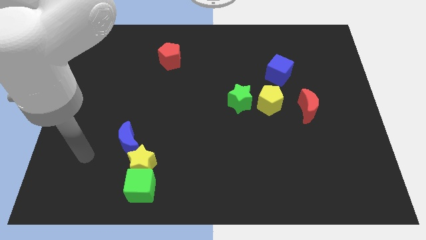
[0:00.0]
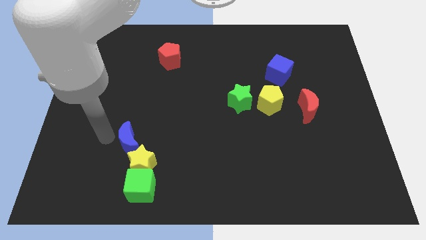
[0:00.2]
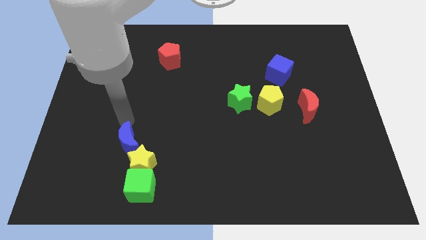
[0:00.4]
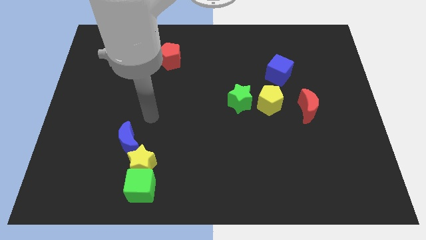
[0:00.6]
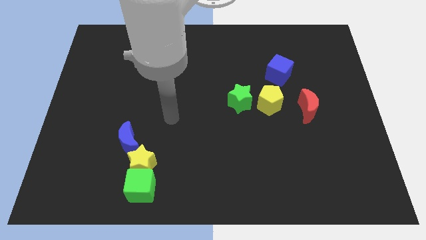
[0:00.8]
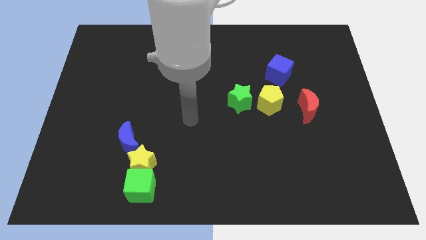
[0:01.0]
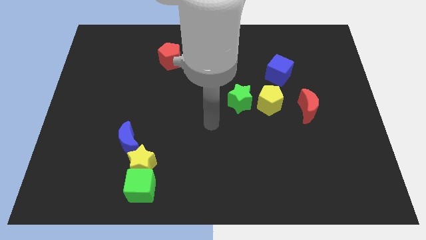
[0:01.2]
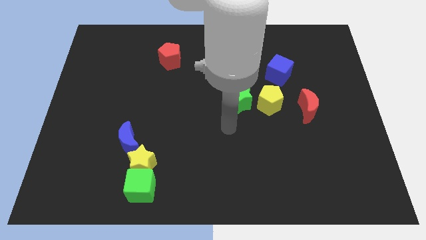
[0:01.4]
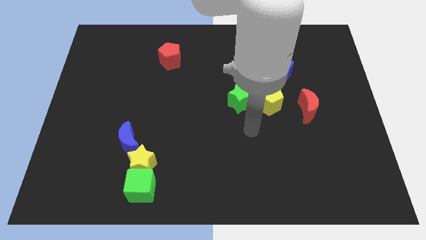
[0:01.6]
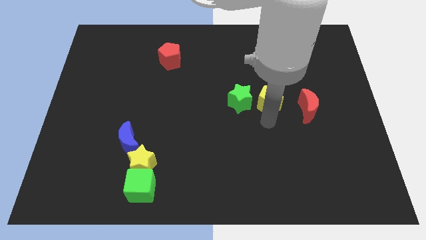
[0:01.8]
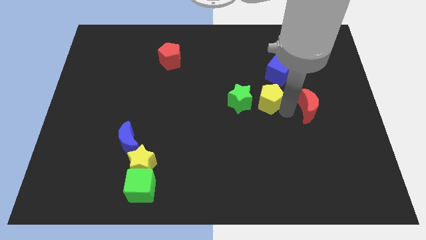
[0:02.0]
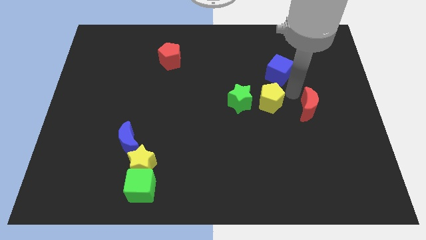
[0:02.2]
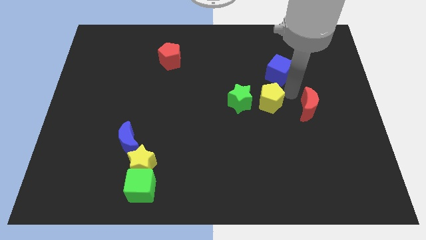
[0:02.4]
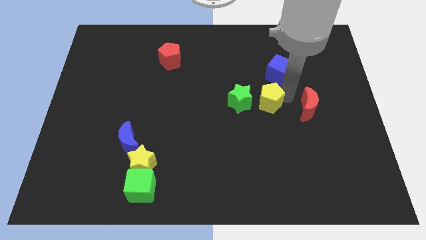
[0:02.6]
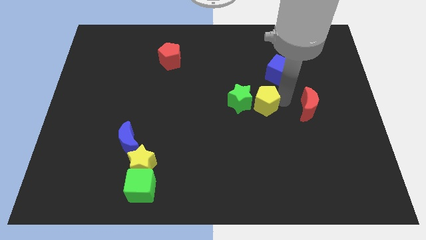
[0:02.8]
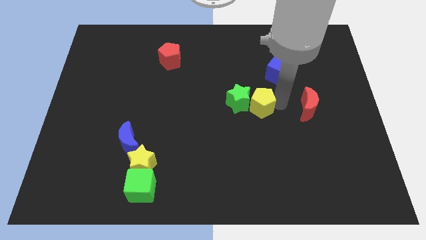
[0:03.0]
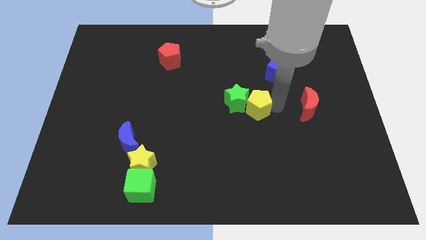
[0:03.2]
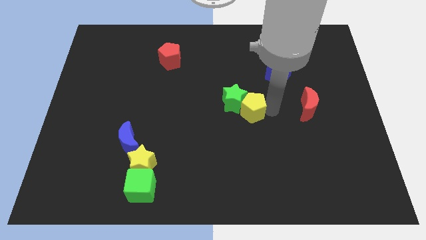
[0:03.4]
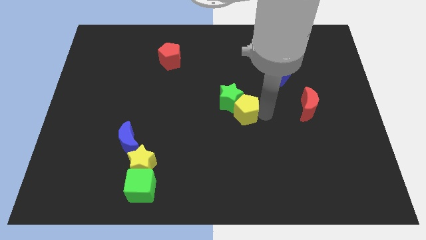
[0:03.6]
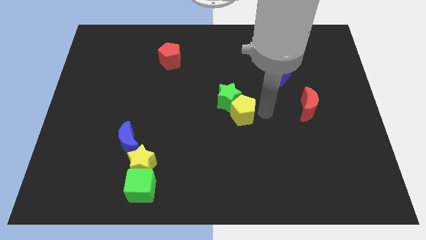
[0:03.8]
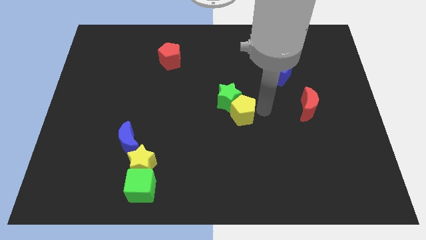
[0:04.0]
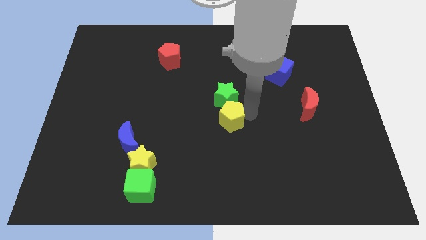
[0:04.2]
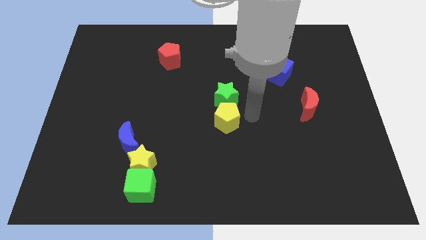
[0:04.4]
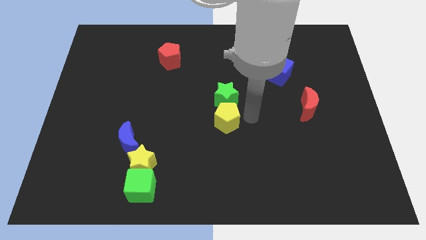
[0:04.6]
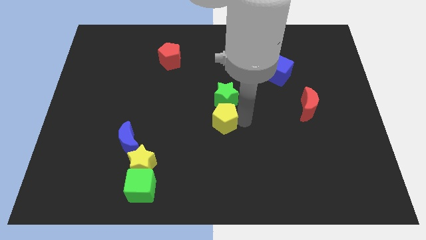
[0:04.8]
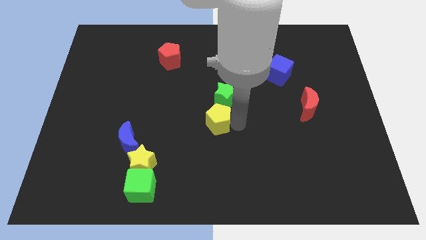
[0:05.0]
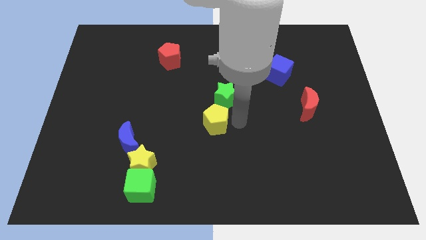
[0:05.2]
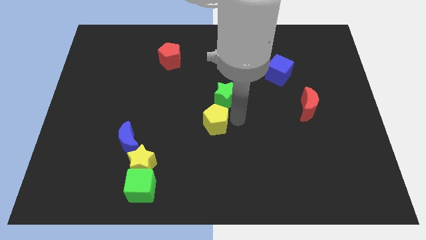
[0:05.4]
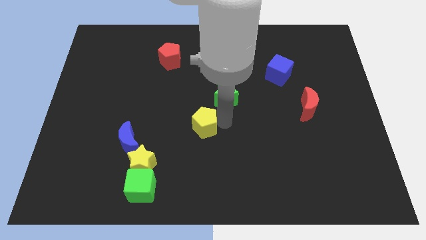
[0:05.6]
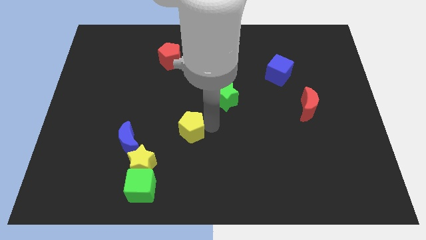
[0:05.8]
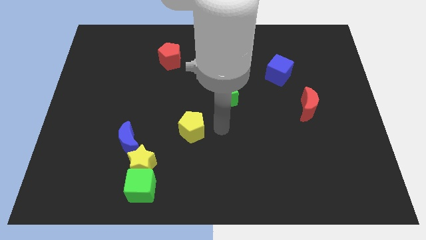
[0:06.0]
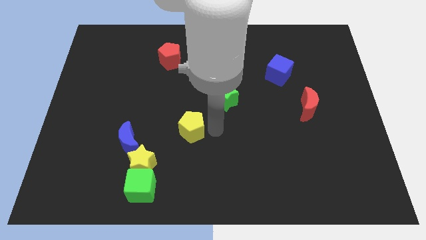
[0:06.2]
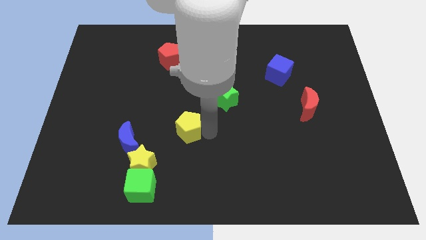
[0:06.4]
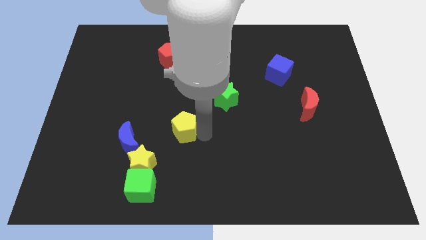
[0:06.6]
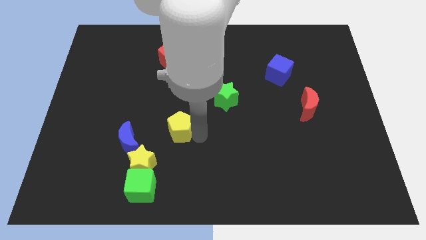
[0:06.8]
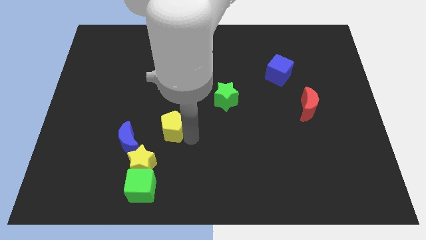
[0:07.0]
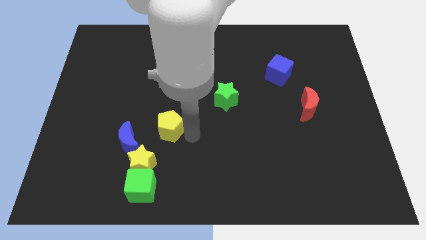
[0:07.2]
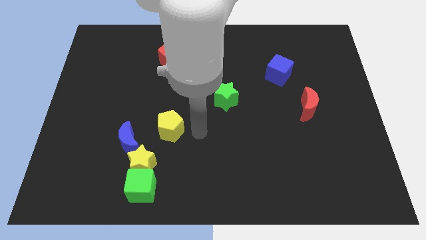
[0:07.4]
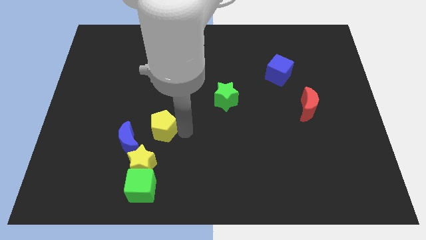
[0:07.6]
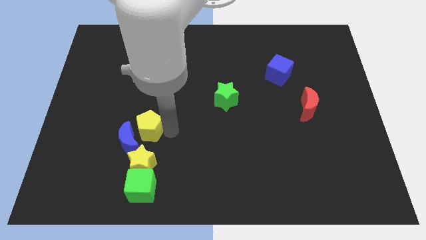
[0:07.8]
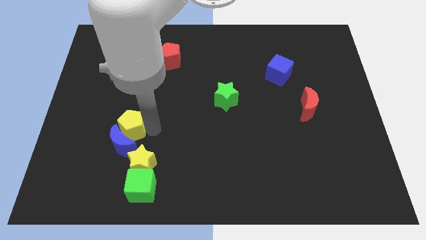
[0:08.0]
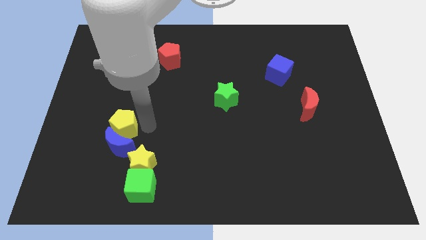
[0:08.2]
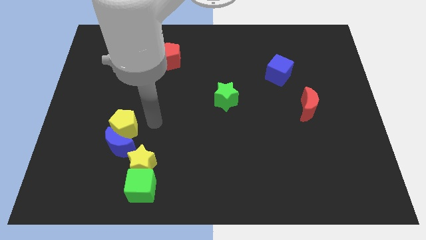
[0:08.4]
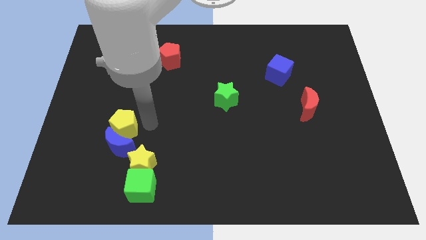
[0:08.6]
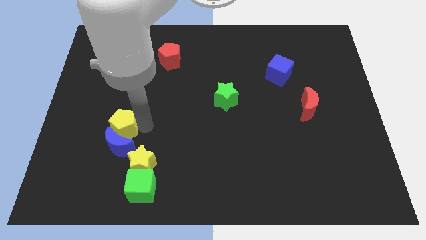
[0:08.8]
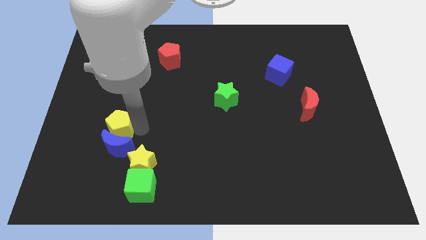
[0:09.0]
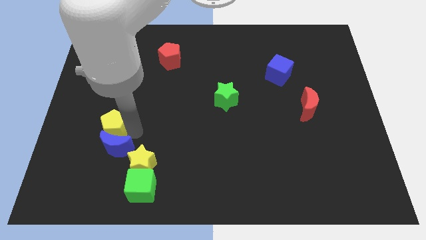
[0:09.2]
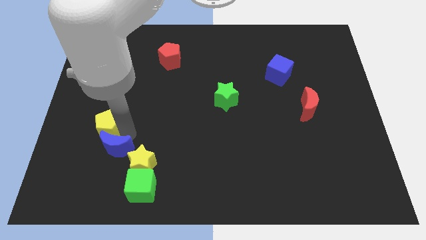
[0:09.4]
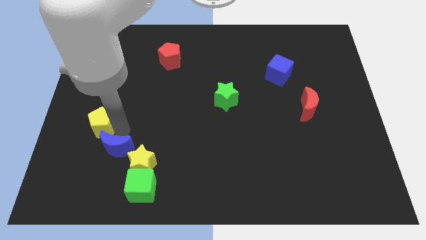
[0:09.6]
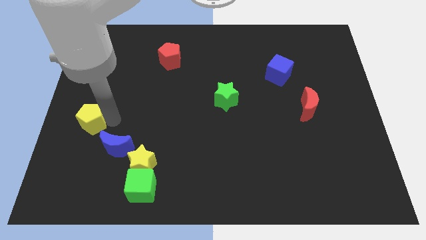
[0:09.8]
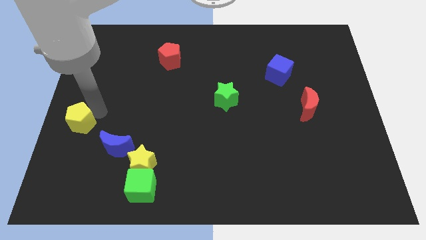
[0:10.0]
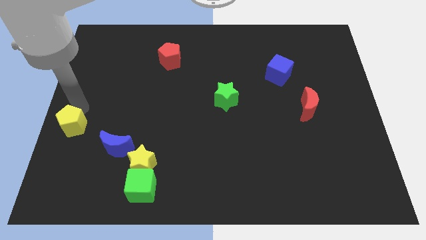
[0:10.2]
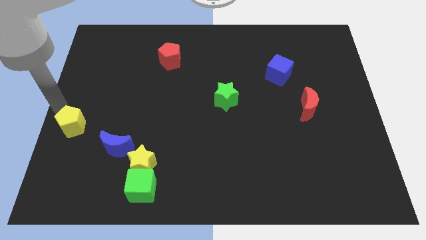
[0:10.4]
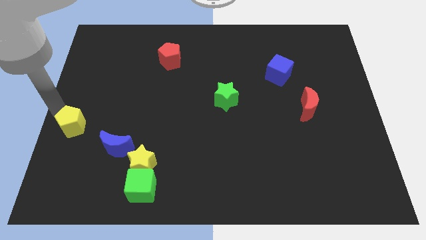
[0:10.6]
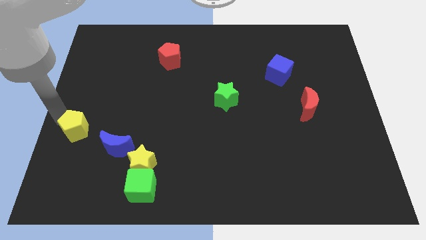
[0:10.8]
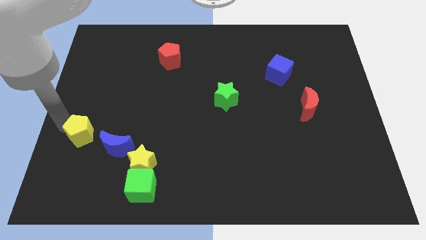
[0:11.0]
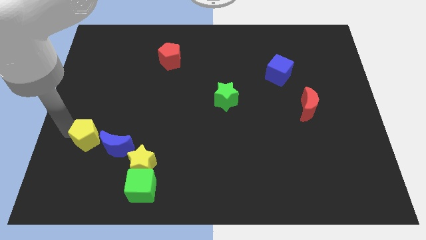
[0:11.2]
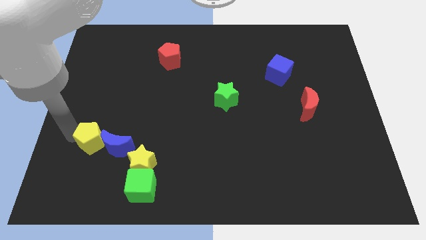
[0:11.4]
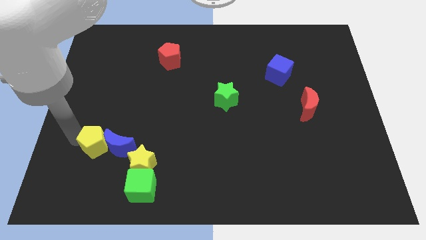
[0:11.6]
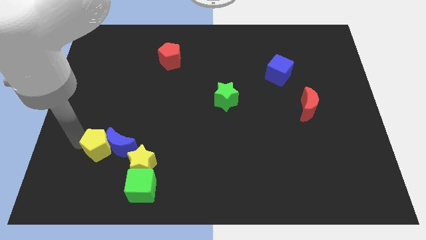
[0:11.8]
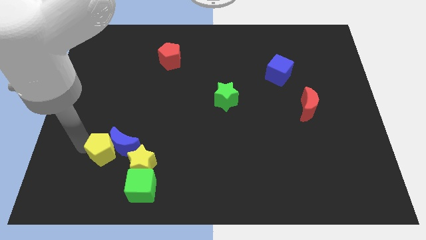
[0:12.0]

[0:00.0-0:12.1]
slide the yellow pentagon to the top left of the green cube

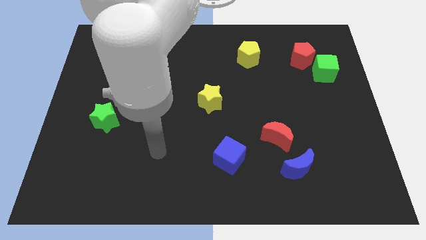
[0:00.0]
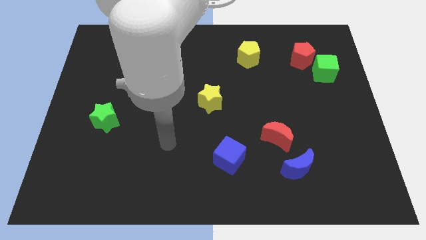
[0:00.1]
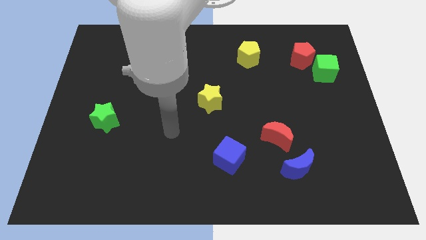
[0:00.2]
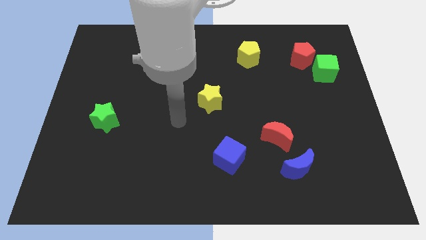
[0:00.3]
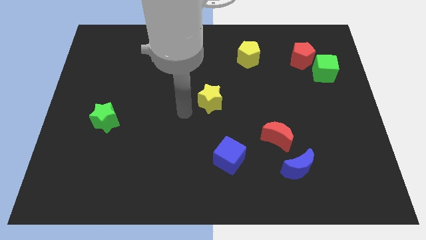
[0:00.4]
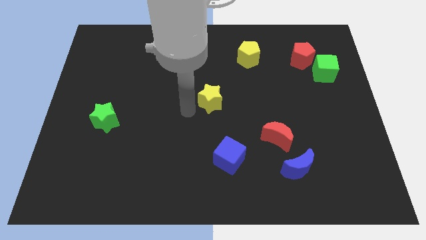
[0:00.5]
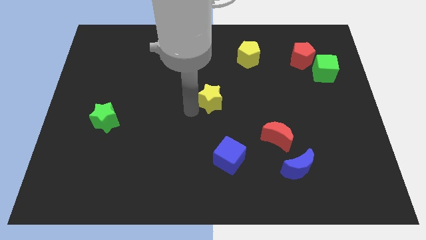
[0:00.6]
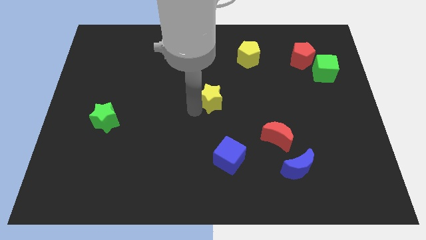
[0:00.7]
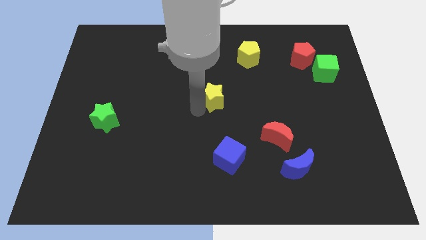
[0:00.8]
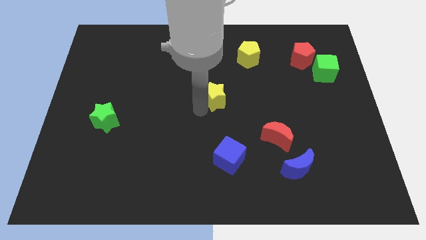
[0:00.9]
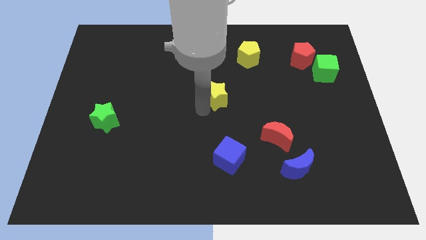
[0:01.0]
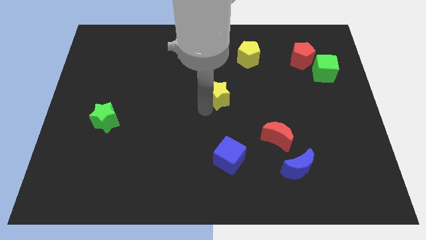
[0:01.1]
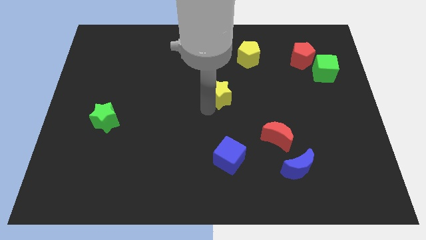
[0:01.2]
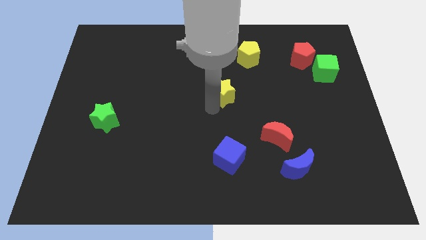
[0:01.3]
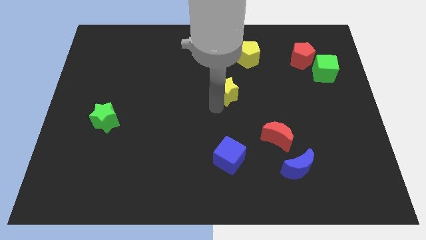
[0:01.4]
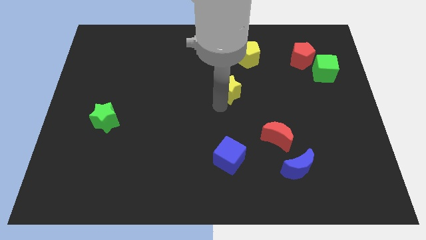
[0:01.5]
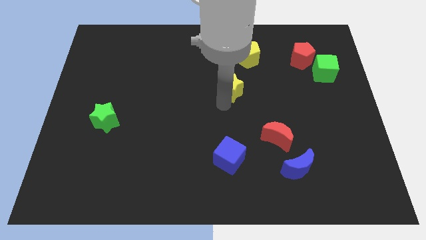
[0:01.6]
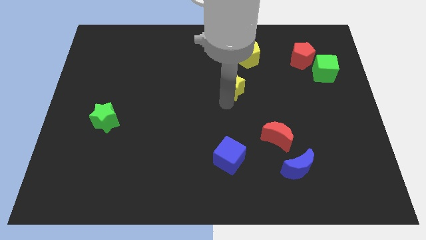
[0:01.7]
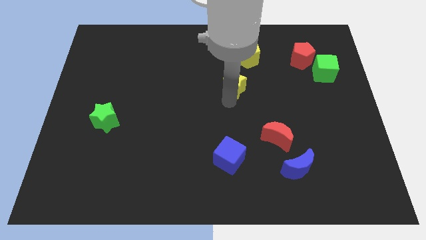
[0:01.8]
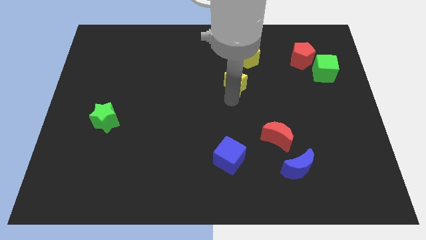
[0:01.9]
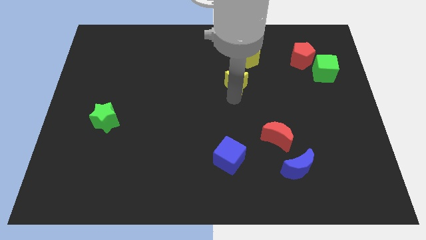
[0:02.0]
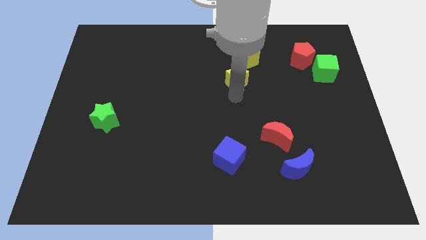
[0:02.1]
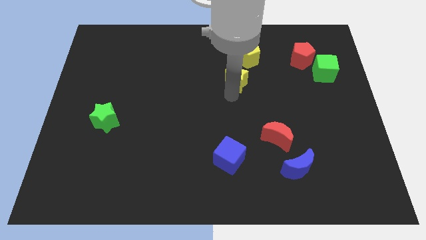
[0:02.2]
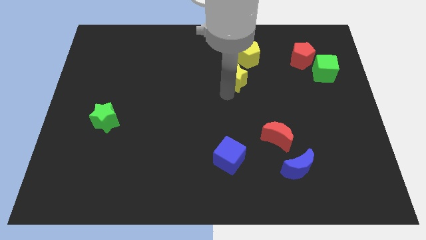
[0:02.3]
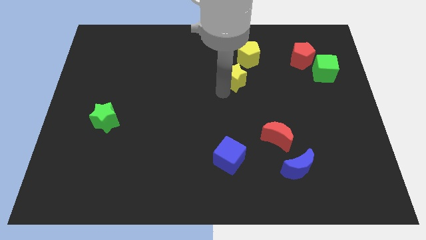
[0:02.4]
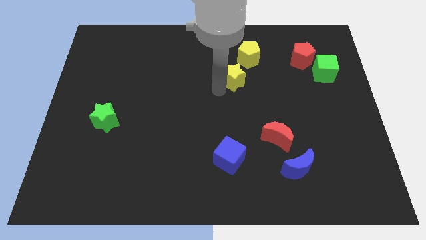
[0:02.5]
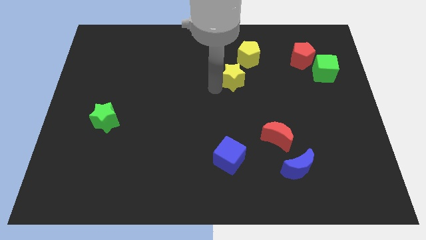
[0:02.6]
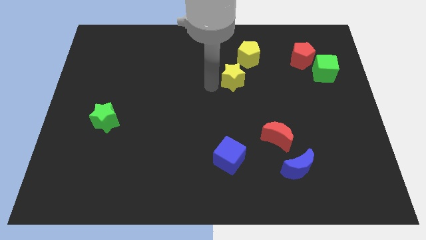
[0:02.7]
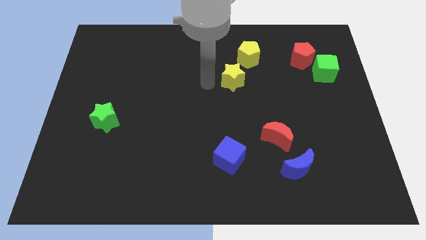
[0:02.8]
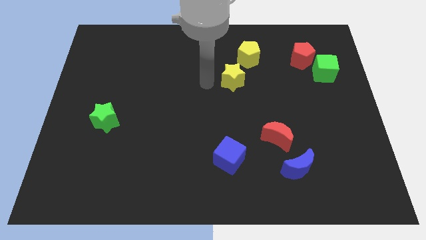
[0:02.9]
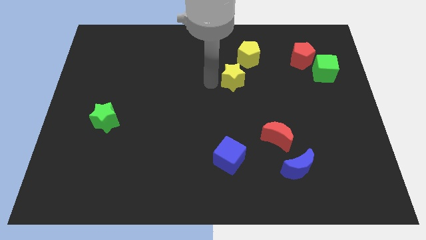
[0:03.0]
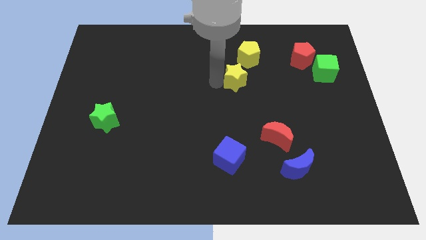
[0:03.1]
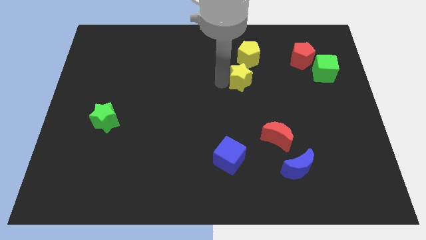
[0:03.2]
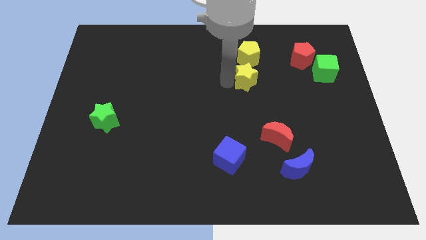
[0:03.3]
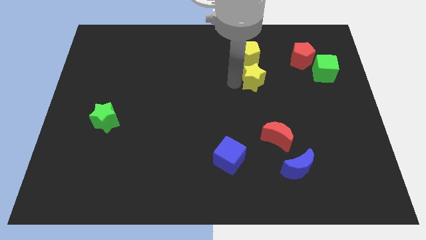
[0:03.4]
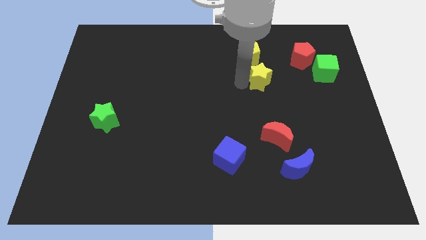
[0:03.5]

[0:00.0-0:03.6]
push the yellow star to the bottom right side of the yellow pentagon
